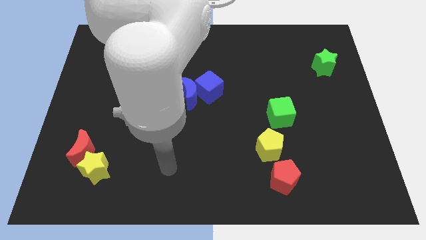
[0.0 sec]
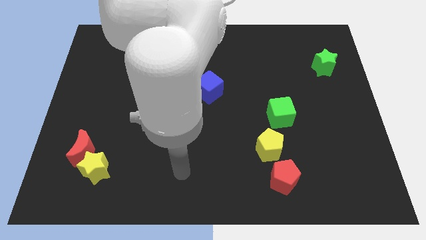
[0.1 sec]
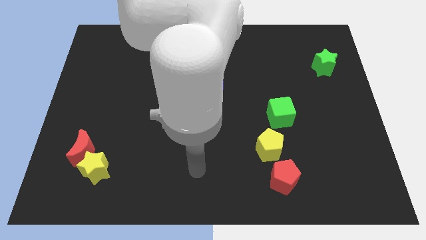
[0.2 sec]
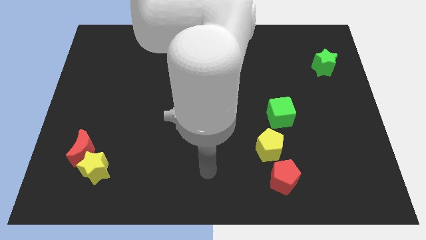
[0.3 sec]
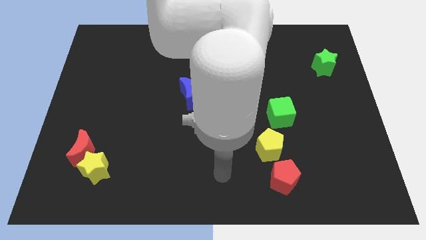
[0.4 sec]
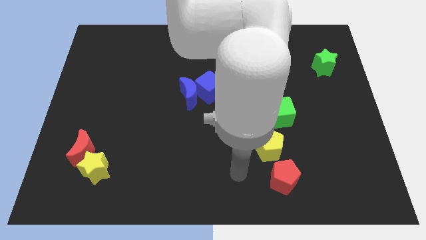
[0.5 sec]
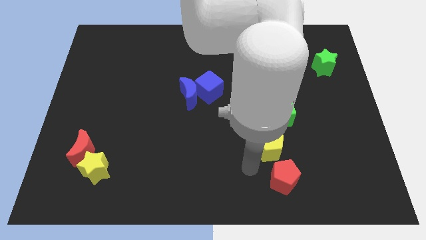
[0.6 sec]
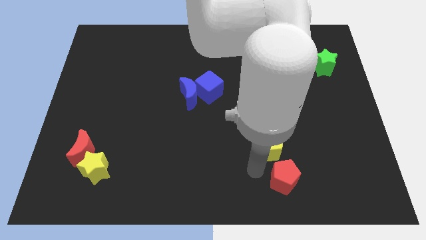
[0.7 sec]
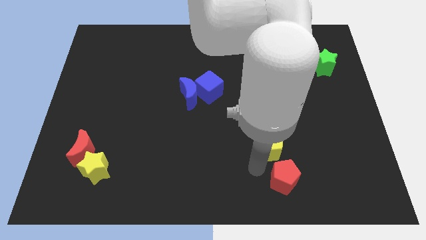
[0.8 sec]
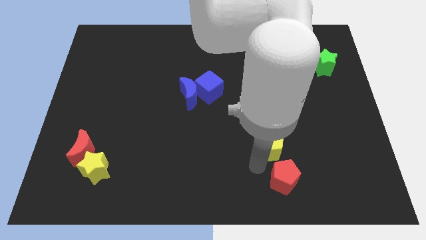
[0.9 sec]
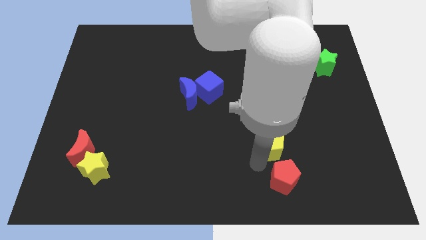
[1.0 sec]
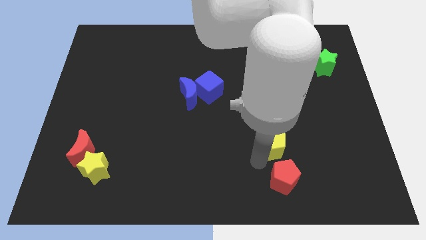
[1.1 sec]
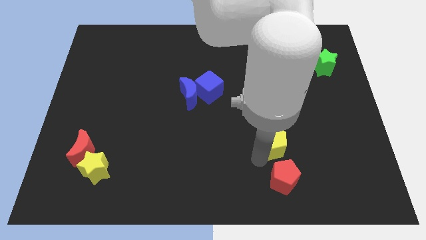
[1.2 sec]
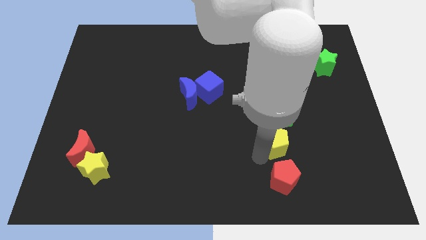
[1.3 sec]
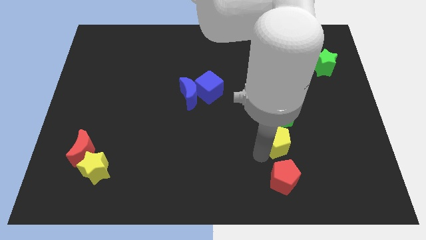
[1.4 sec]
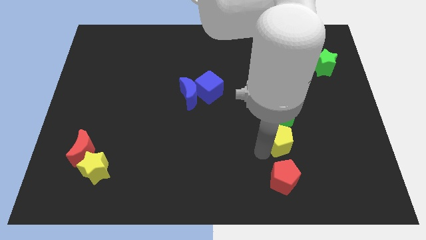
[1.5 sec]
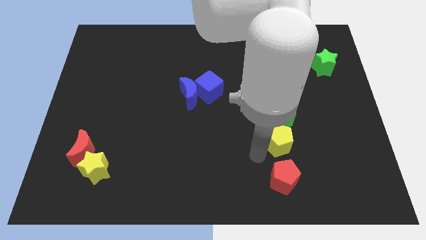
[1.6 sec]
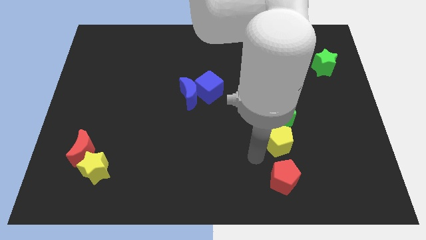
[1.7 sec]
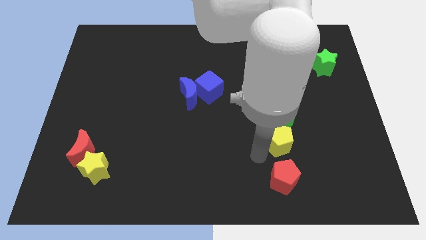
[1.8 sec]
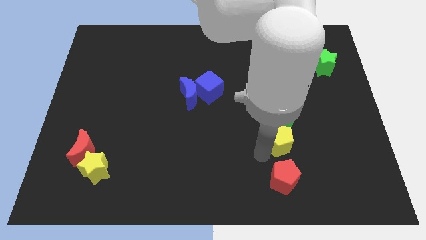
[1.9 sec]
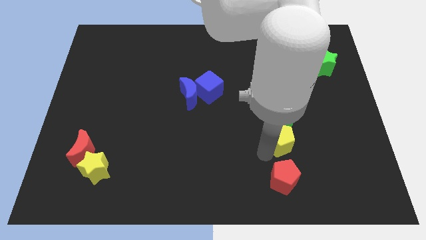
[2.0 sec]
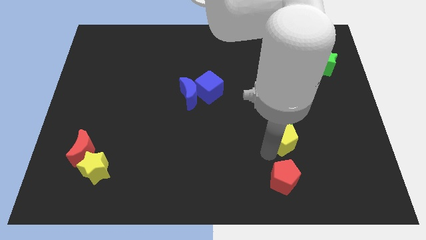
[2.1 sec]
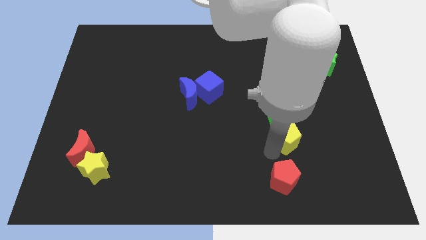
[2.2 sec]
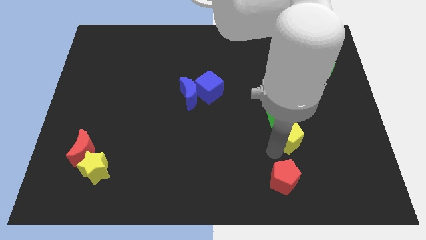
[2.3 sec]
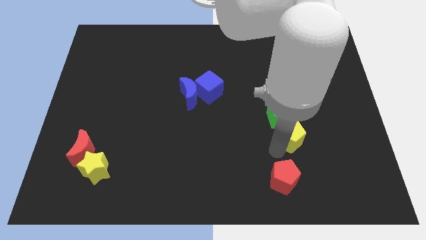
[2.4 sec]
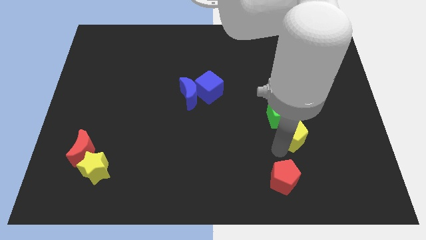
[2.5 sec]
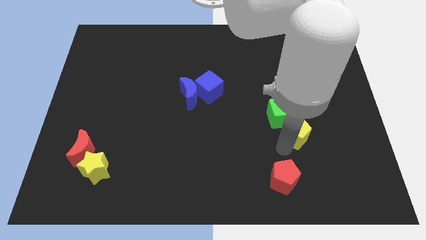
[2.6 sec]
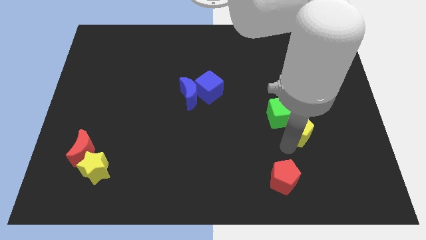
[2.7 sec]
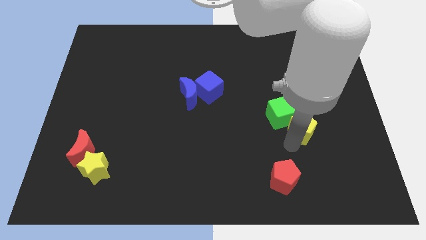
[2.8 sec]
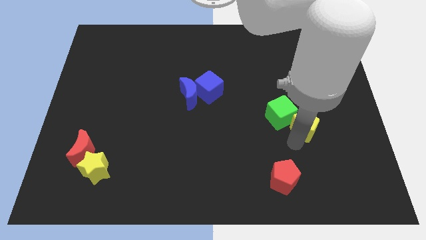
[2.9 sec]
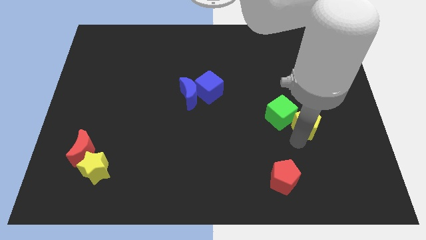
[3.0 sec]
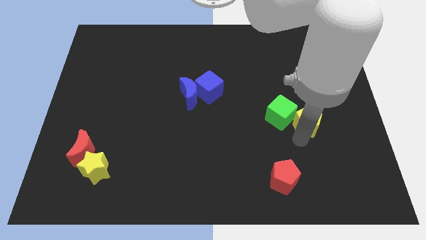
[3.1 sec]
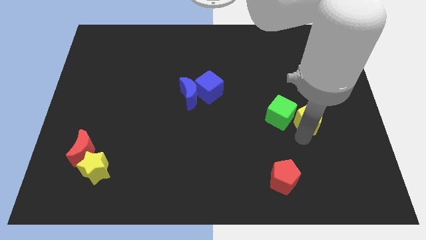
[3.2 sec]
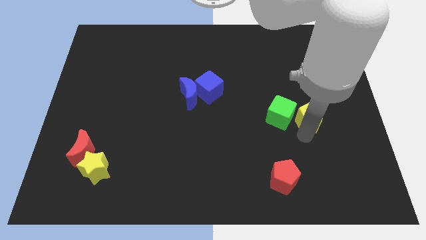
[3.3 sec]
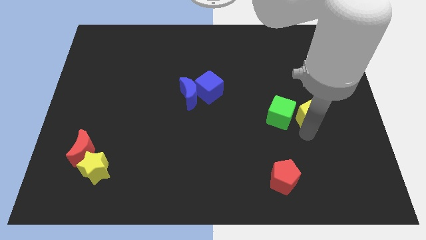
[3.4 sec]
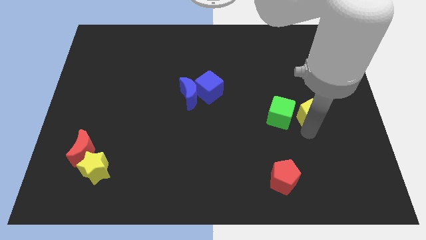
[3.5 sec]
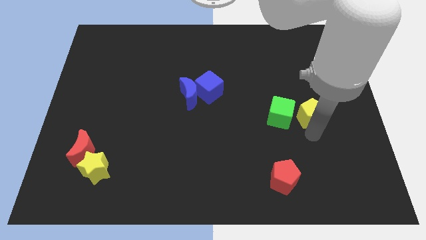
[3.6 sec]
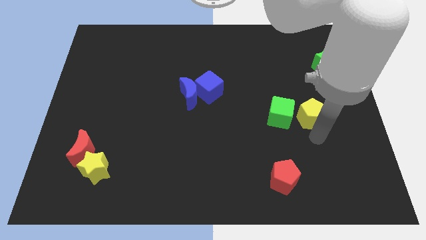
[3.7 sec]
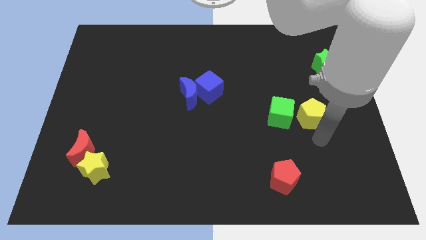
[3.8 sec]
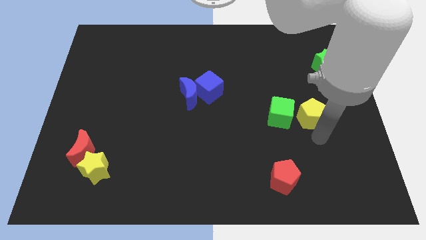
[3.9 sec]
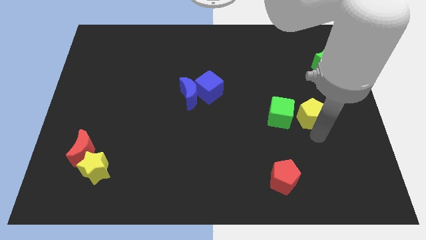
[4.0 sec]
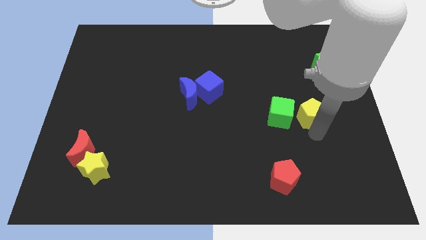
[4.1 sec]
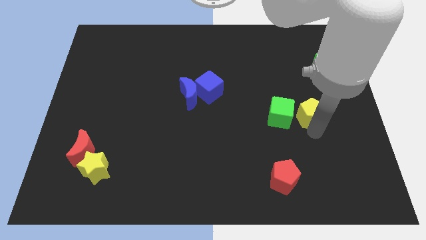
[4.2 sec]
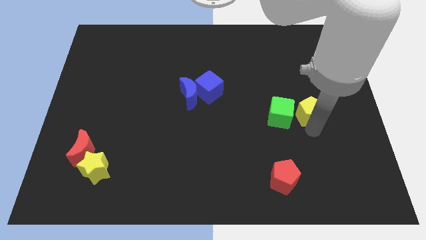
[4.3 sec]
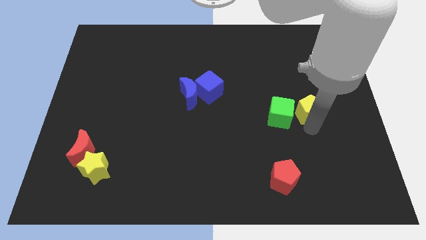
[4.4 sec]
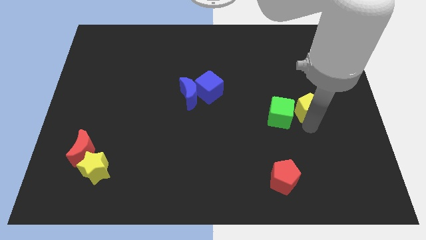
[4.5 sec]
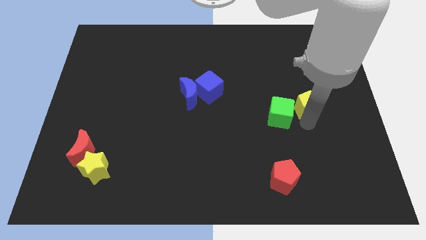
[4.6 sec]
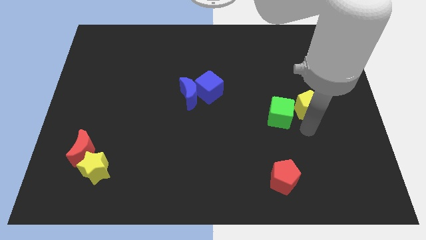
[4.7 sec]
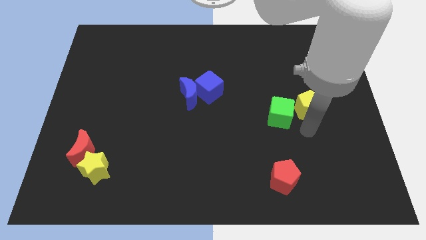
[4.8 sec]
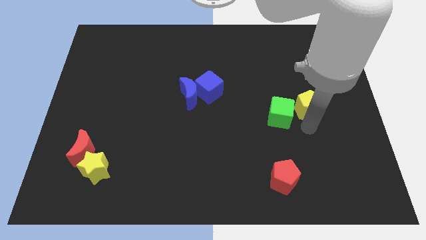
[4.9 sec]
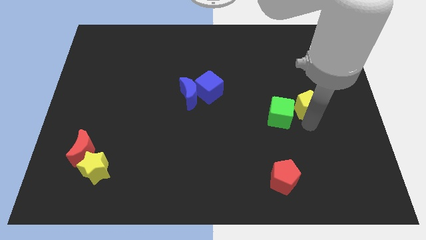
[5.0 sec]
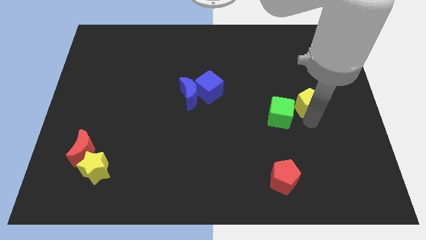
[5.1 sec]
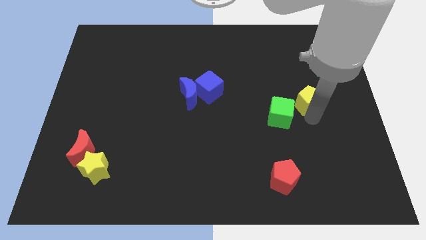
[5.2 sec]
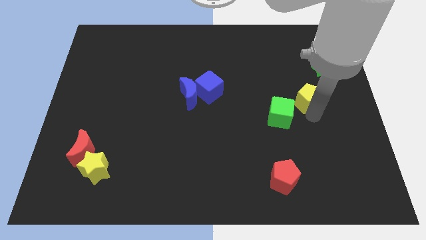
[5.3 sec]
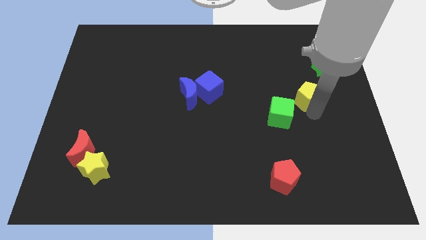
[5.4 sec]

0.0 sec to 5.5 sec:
move the yellow pentagon to the bottom left of the green star
